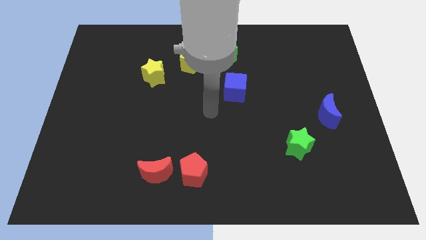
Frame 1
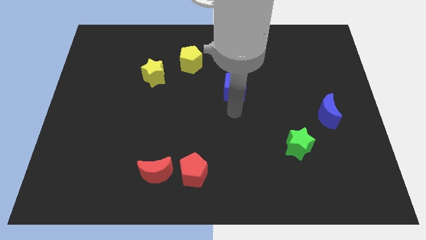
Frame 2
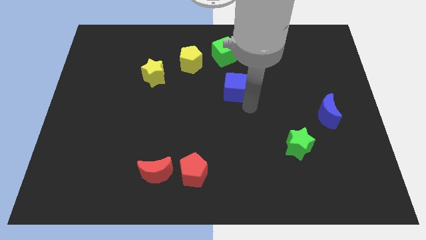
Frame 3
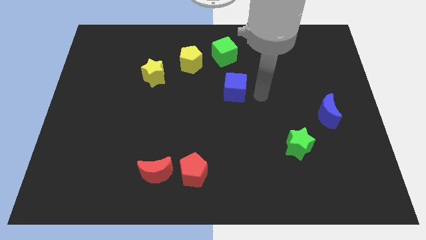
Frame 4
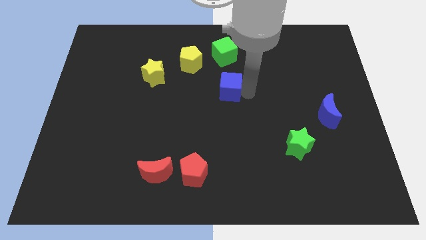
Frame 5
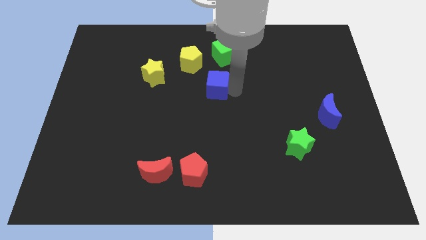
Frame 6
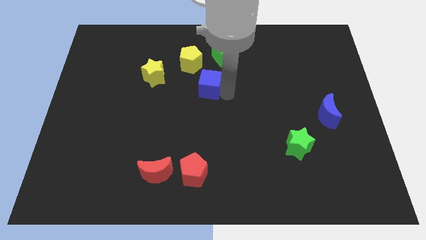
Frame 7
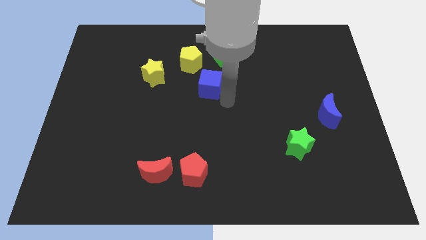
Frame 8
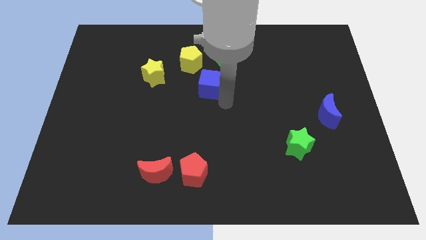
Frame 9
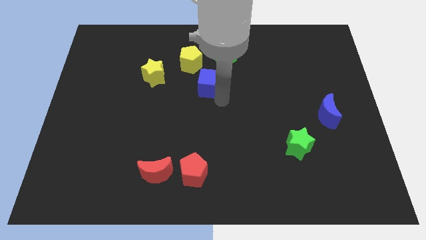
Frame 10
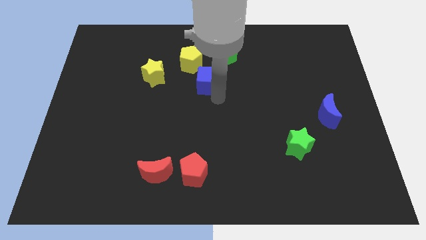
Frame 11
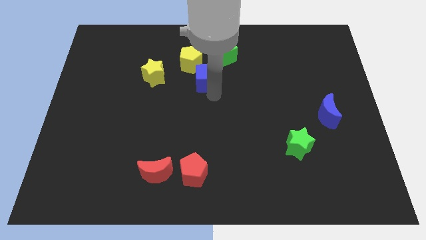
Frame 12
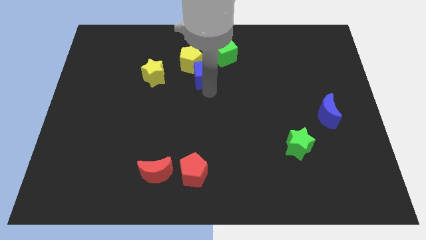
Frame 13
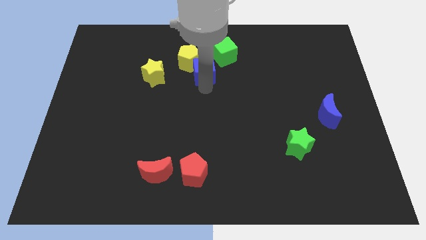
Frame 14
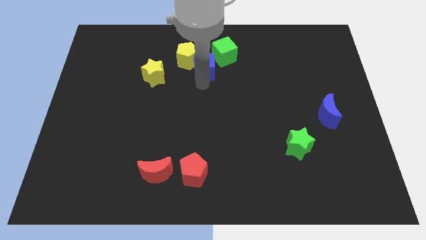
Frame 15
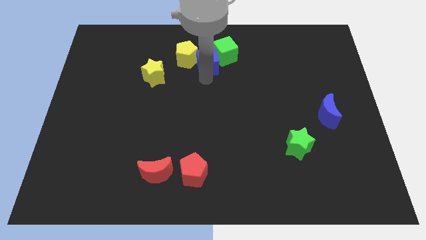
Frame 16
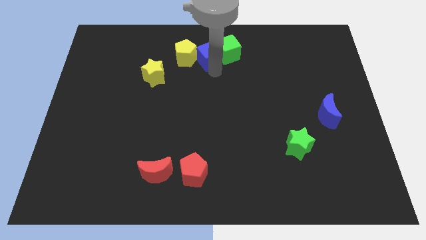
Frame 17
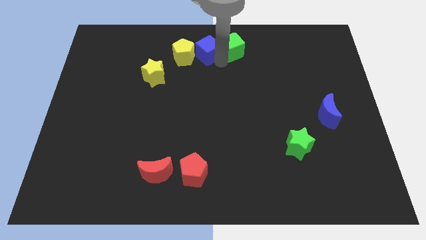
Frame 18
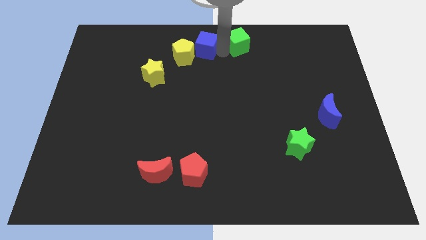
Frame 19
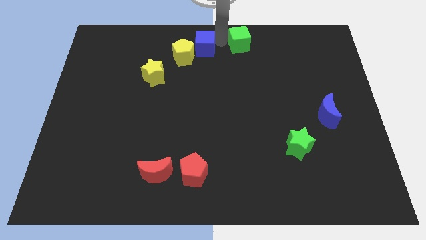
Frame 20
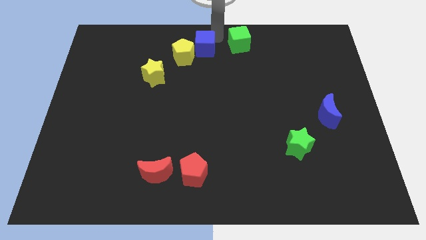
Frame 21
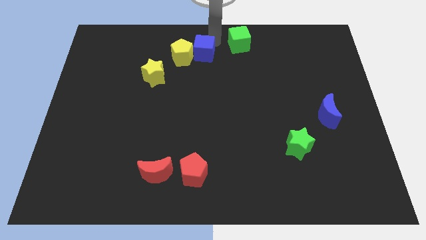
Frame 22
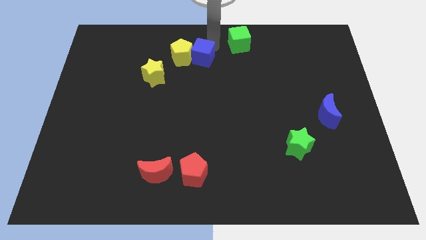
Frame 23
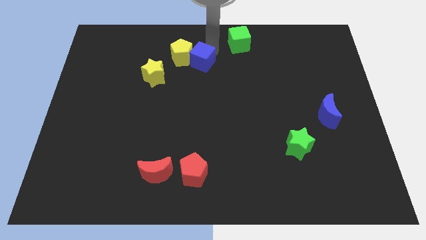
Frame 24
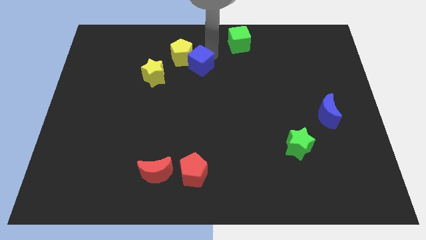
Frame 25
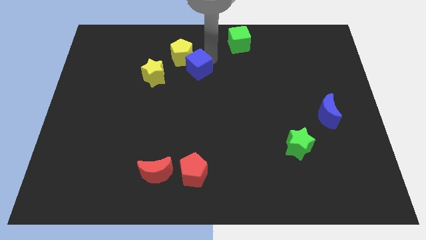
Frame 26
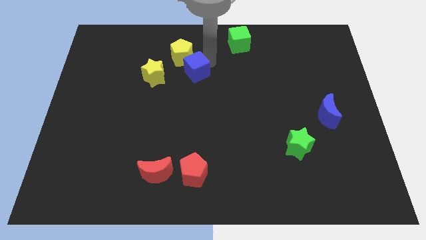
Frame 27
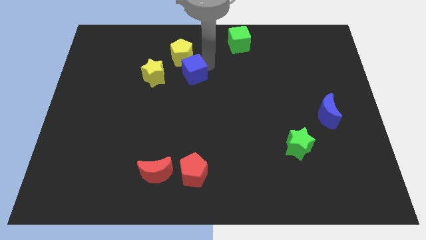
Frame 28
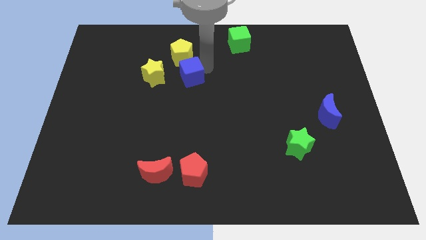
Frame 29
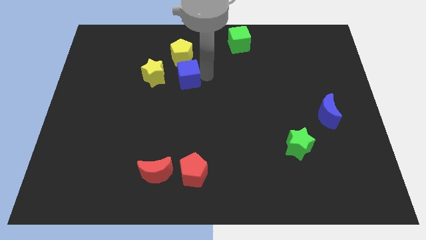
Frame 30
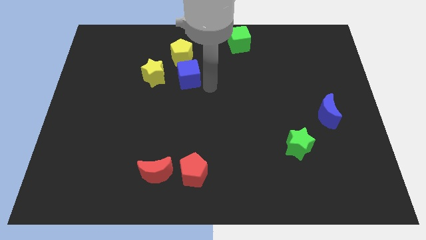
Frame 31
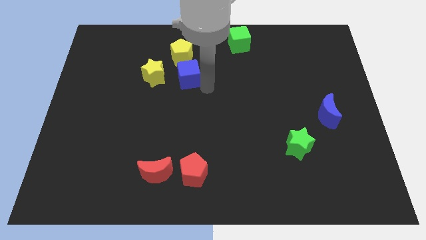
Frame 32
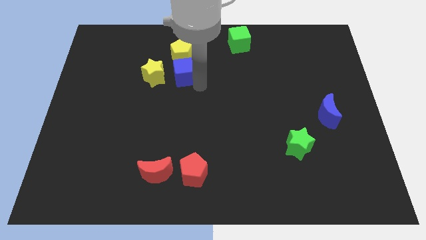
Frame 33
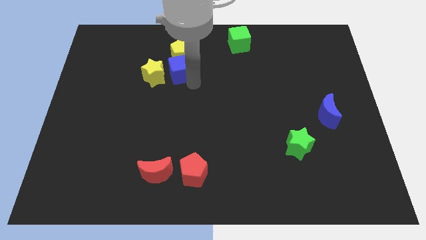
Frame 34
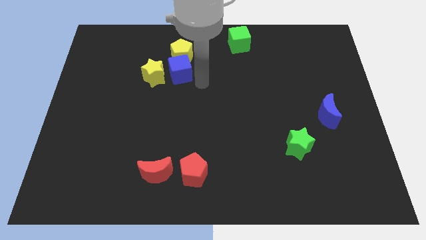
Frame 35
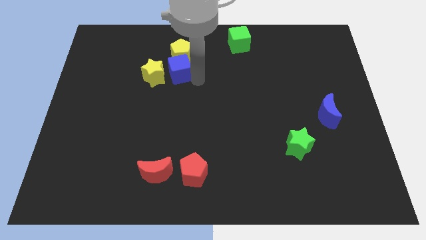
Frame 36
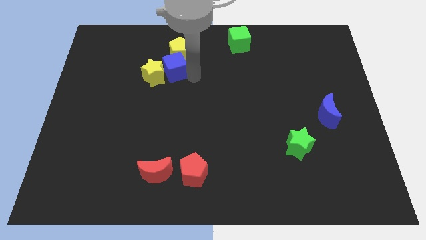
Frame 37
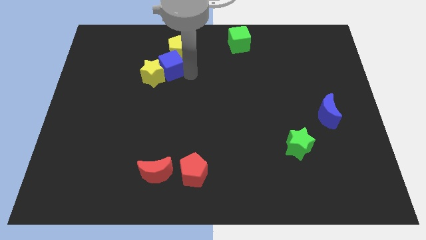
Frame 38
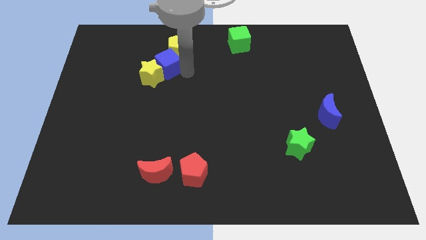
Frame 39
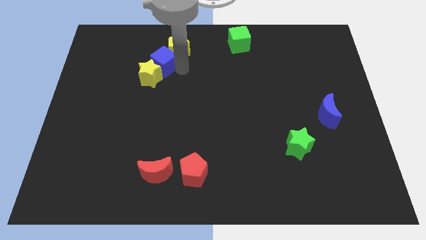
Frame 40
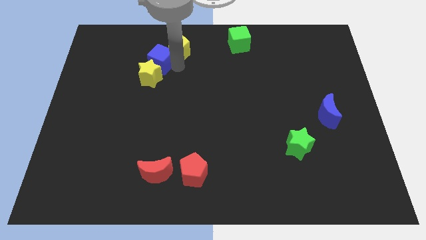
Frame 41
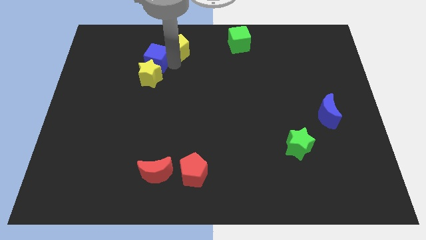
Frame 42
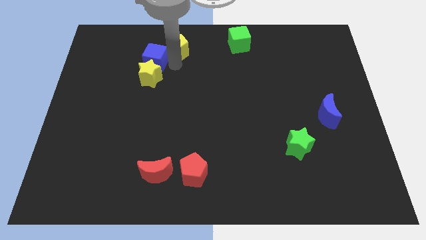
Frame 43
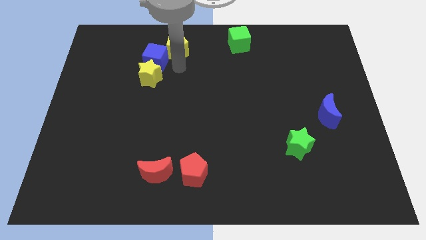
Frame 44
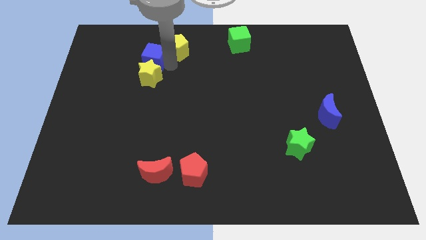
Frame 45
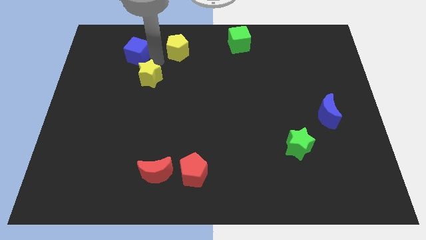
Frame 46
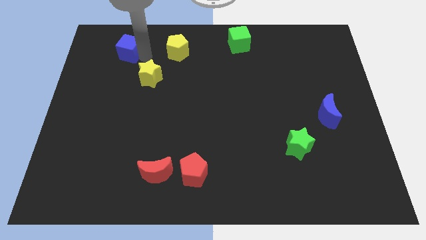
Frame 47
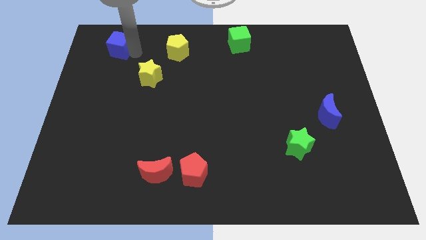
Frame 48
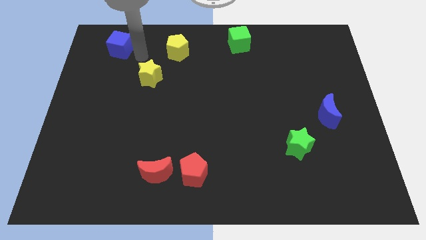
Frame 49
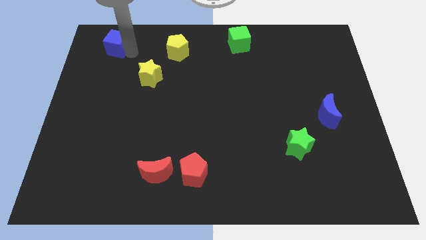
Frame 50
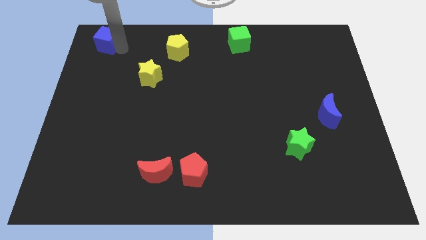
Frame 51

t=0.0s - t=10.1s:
push the blue cube to the upper left corner

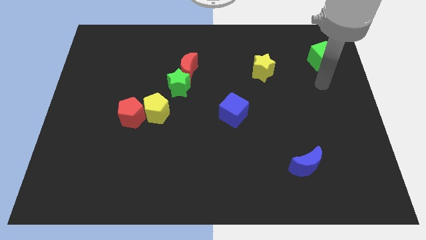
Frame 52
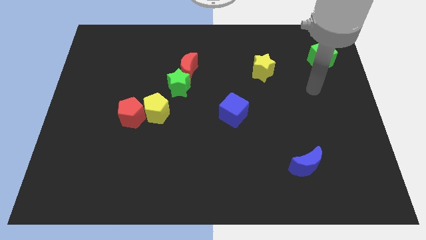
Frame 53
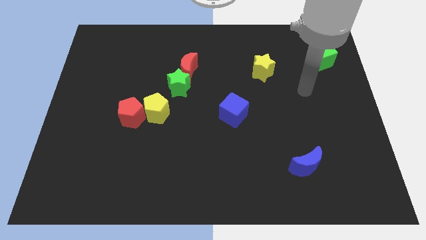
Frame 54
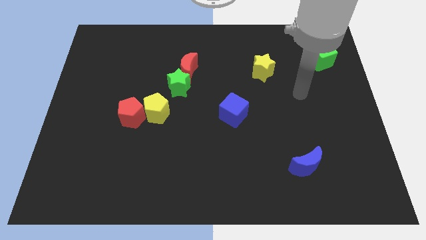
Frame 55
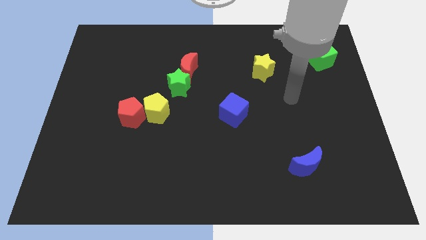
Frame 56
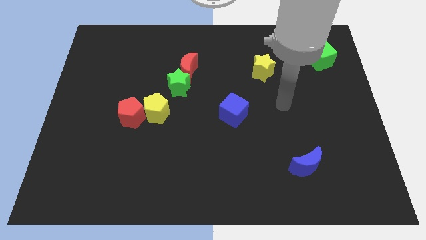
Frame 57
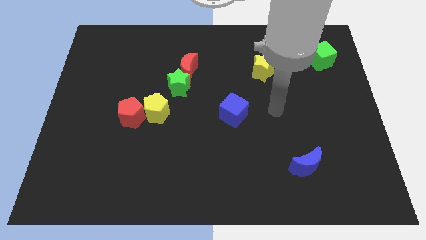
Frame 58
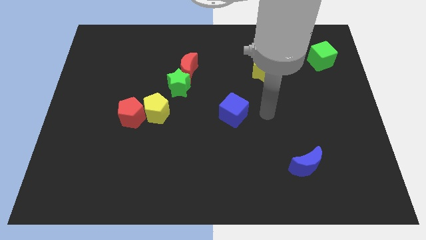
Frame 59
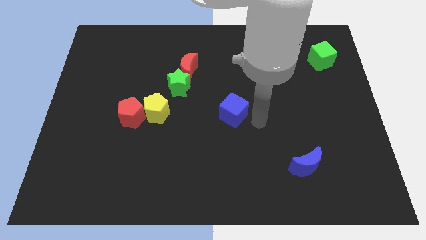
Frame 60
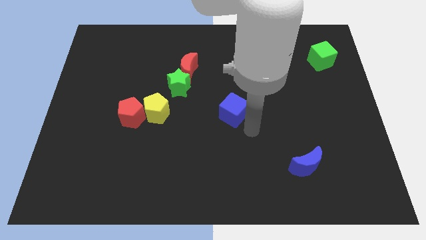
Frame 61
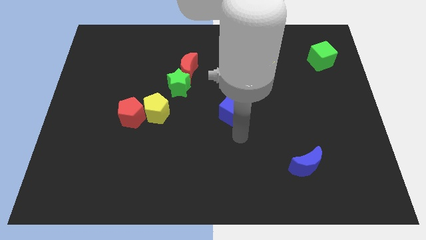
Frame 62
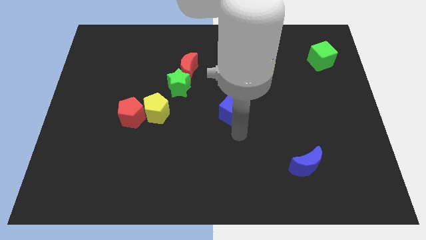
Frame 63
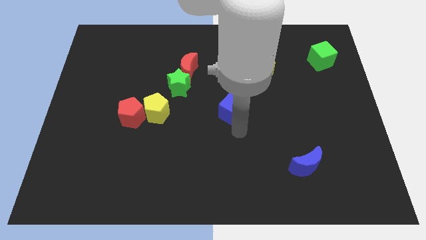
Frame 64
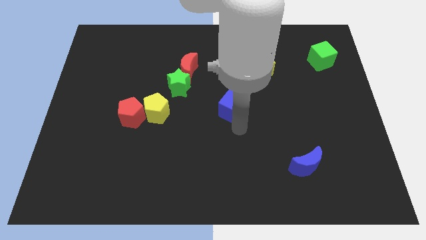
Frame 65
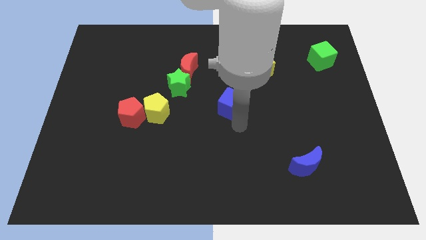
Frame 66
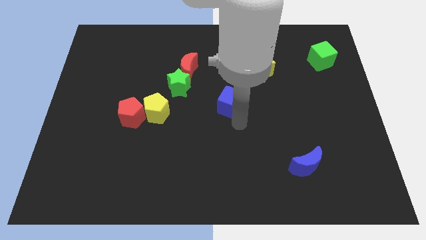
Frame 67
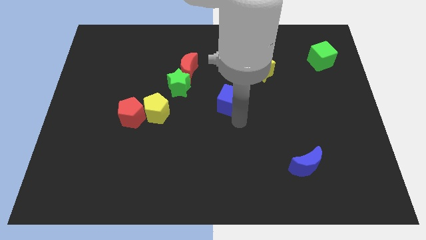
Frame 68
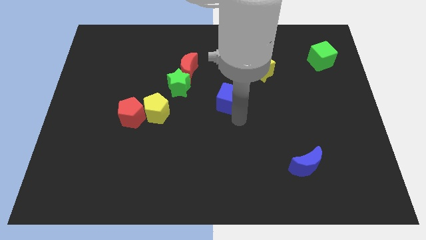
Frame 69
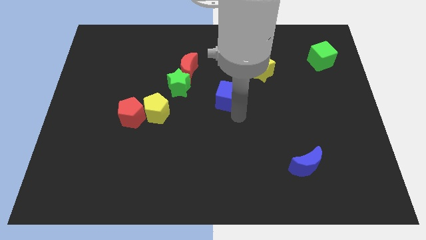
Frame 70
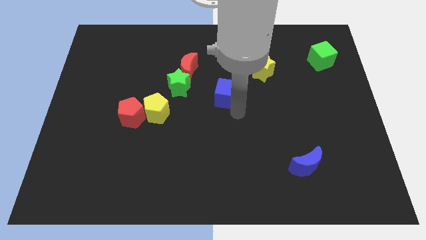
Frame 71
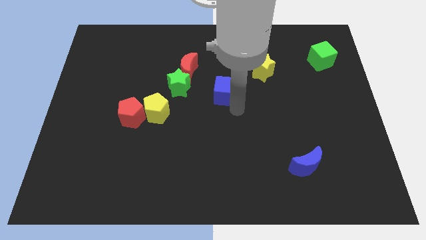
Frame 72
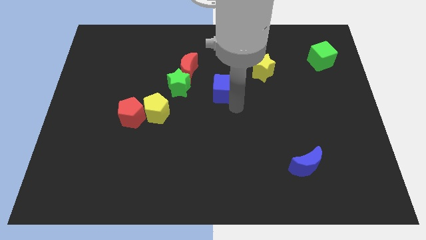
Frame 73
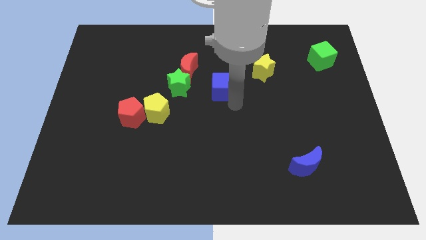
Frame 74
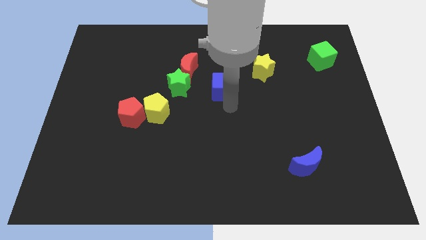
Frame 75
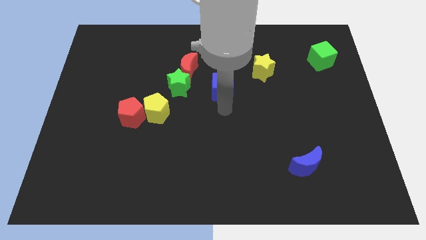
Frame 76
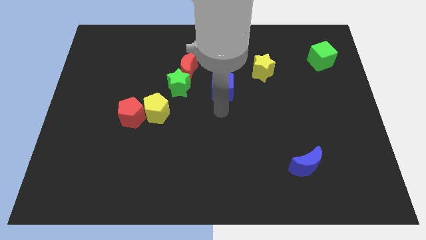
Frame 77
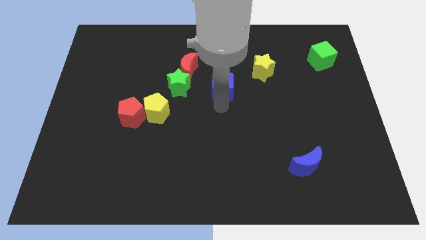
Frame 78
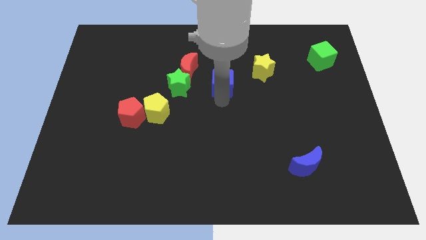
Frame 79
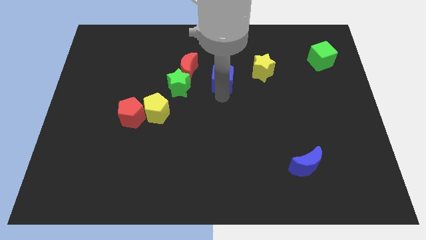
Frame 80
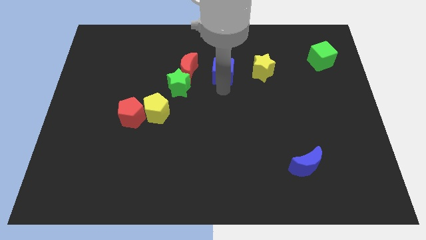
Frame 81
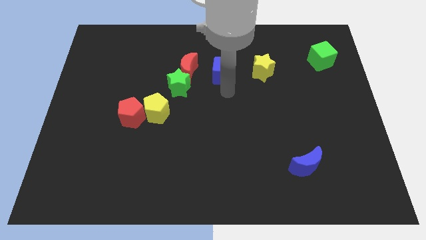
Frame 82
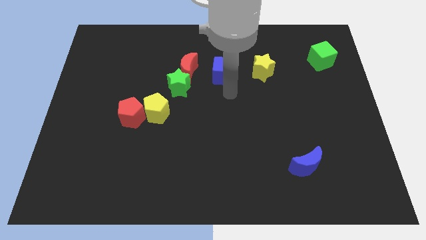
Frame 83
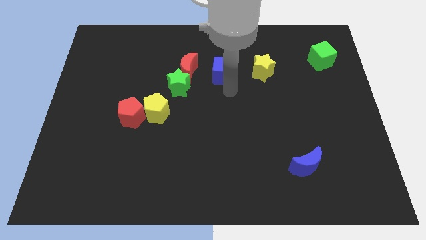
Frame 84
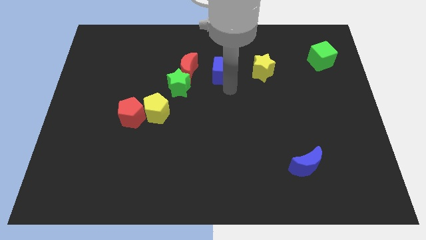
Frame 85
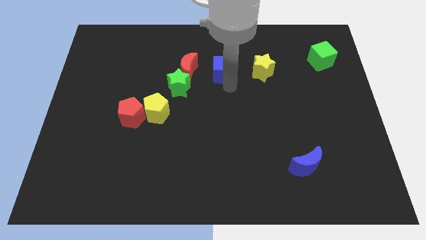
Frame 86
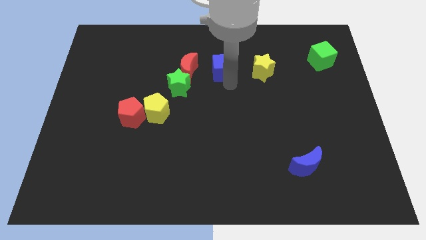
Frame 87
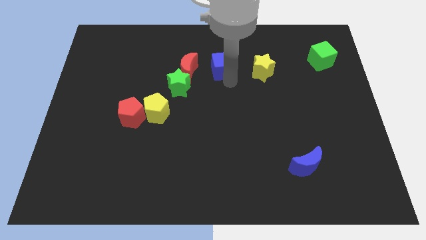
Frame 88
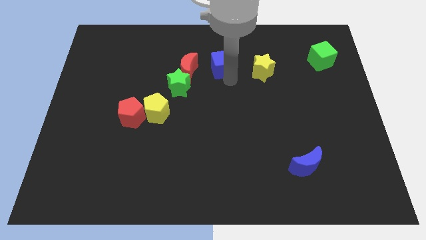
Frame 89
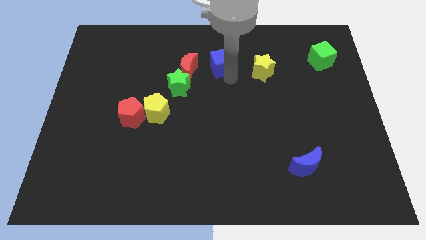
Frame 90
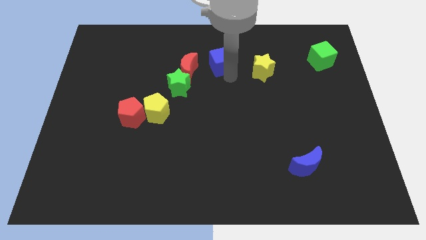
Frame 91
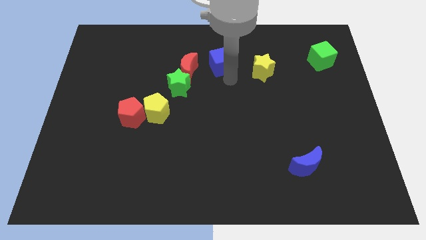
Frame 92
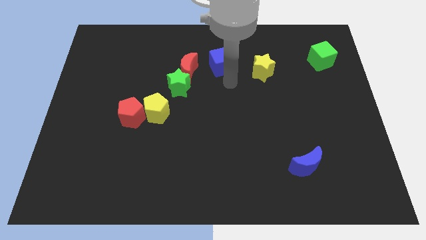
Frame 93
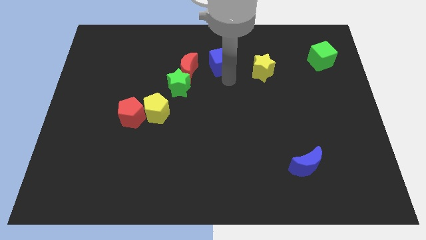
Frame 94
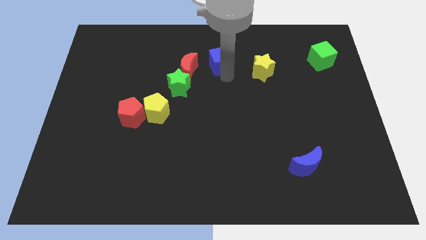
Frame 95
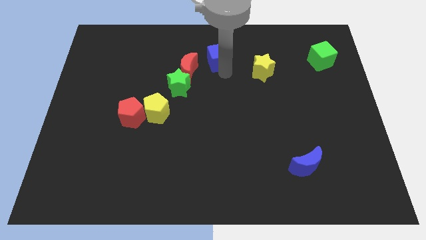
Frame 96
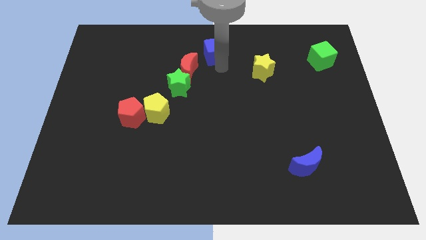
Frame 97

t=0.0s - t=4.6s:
slide the blue cube to the towards your base
